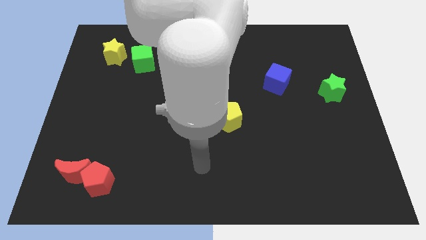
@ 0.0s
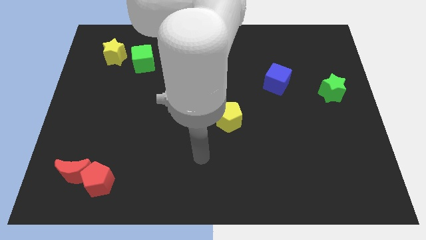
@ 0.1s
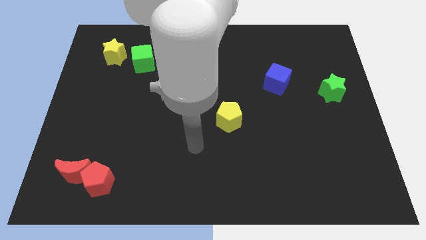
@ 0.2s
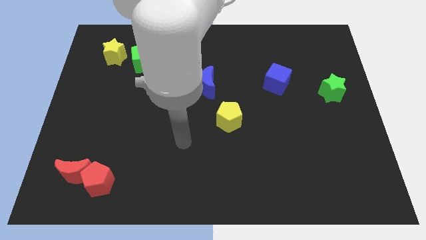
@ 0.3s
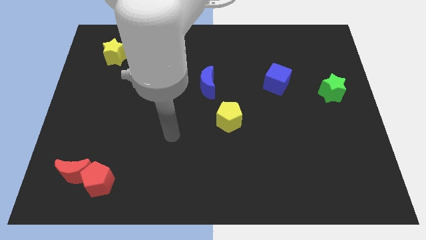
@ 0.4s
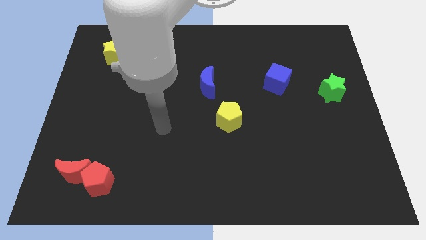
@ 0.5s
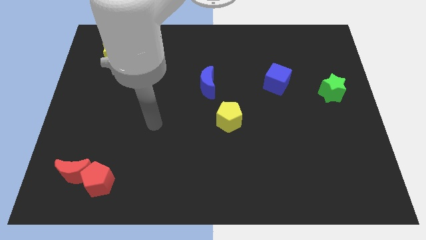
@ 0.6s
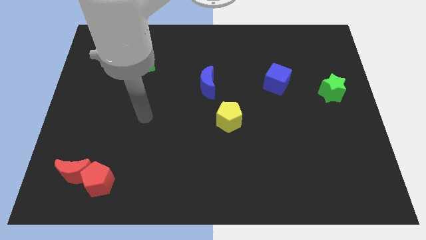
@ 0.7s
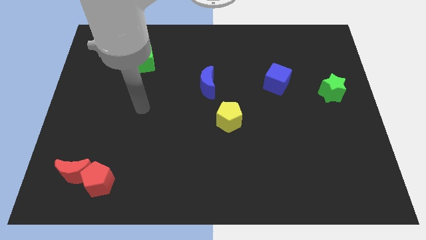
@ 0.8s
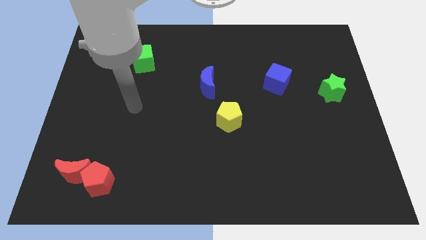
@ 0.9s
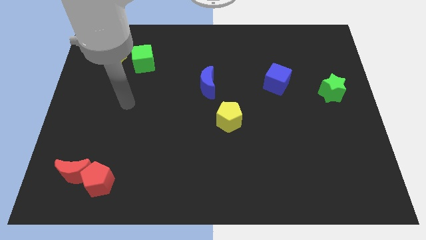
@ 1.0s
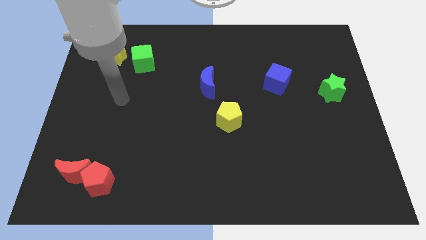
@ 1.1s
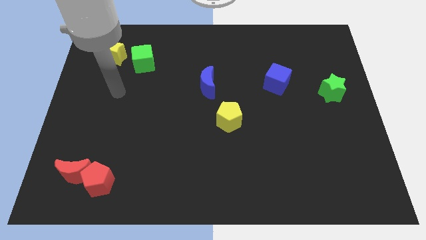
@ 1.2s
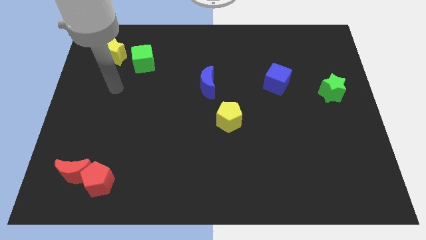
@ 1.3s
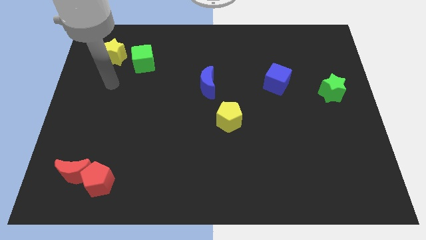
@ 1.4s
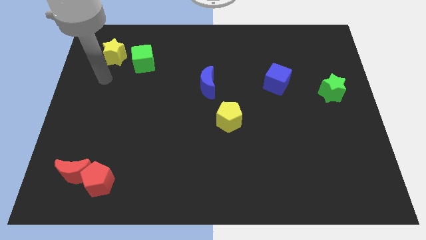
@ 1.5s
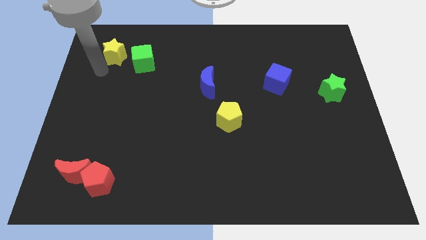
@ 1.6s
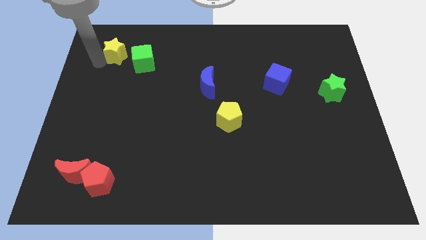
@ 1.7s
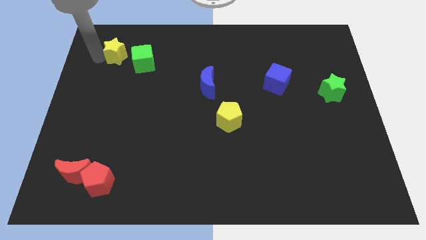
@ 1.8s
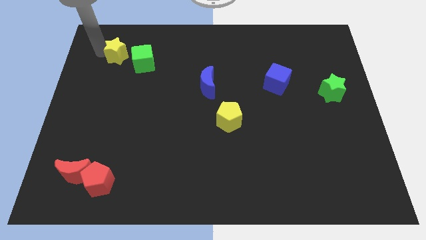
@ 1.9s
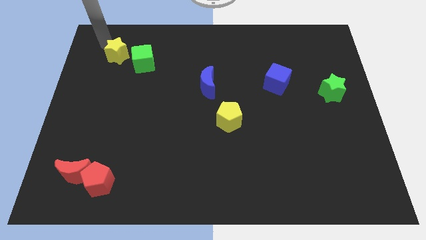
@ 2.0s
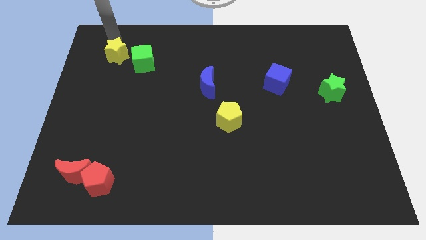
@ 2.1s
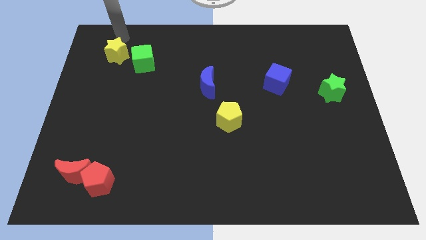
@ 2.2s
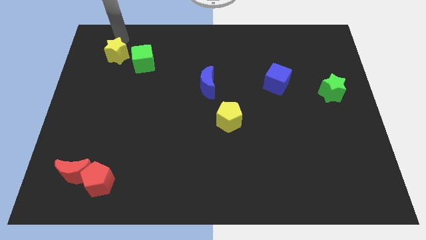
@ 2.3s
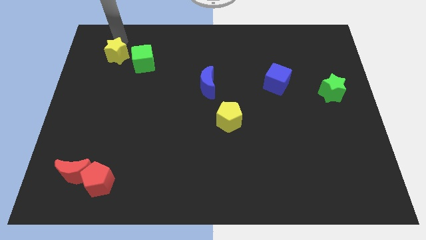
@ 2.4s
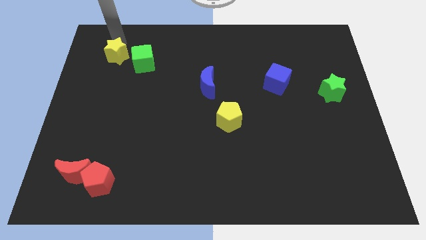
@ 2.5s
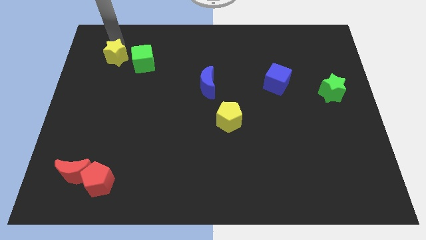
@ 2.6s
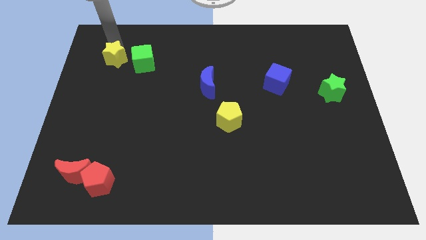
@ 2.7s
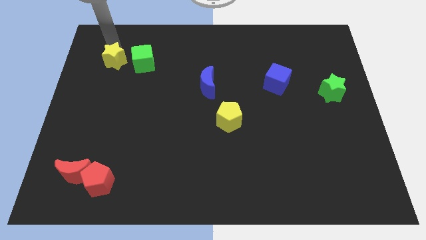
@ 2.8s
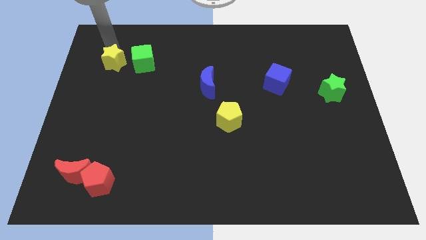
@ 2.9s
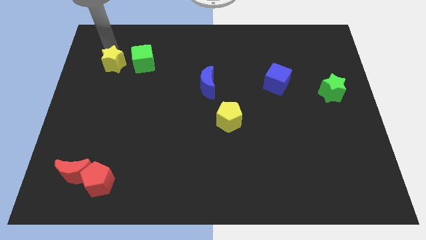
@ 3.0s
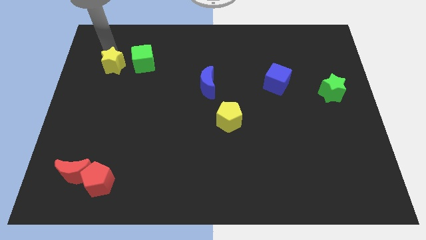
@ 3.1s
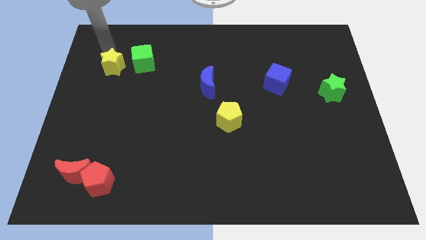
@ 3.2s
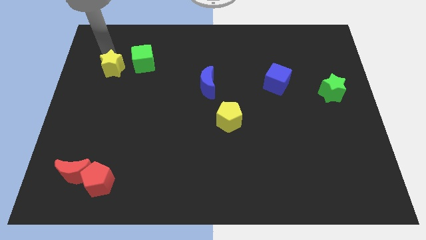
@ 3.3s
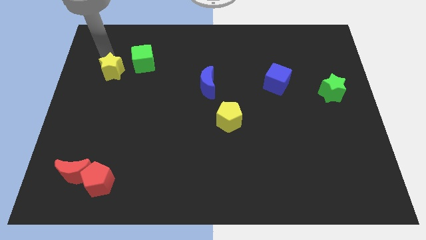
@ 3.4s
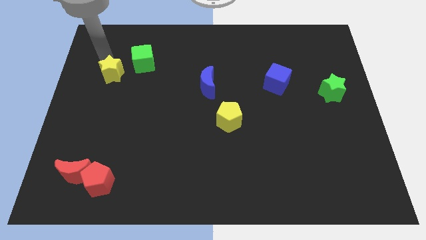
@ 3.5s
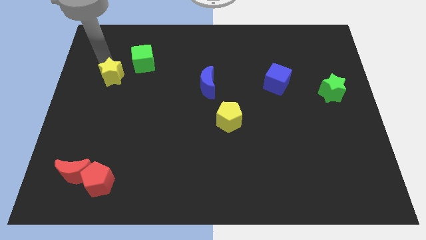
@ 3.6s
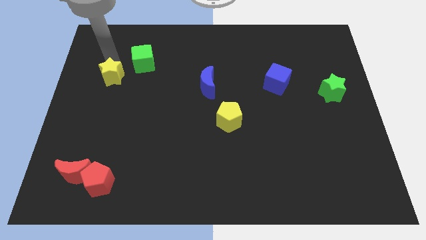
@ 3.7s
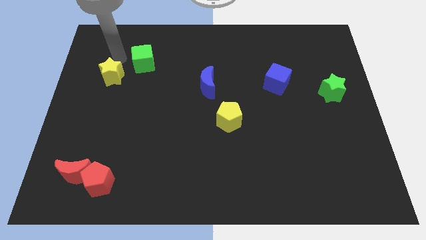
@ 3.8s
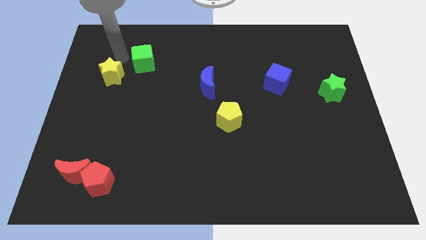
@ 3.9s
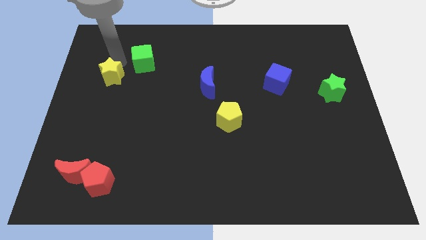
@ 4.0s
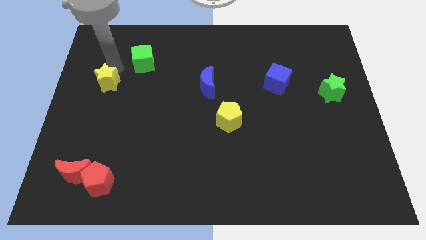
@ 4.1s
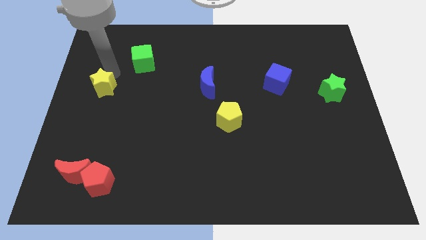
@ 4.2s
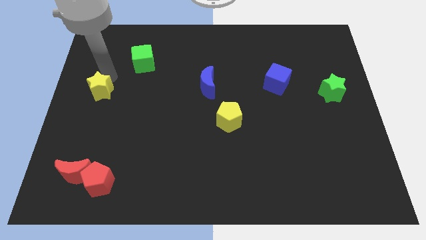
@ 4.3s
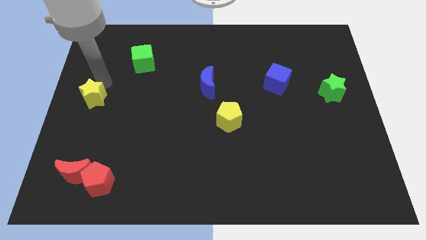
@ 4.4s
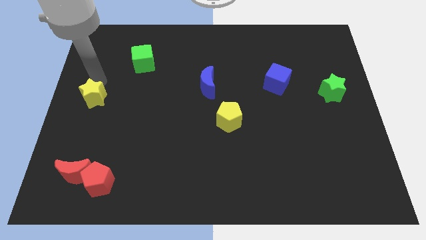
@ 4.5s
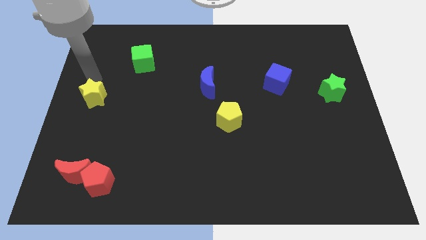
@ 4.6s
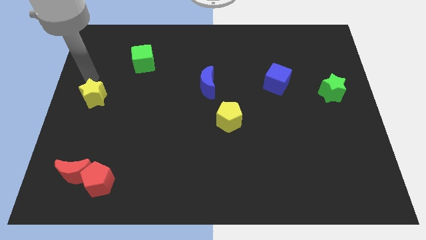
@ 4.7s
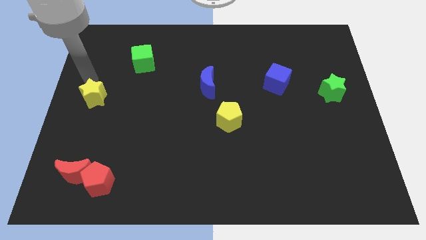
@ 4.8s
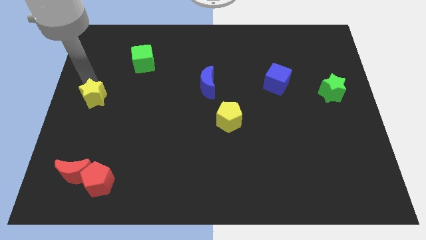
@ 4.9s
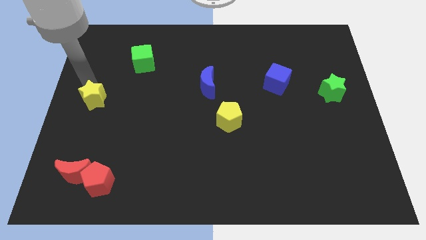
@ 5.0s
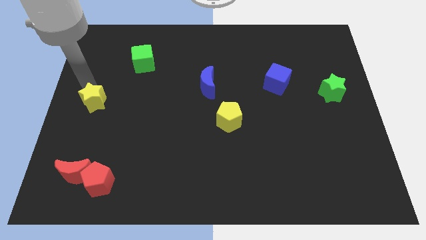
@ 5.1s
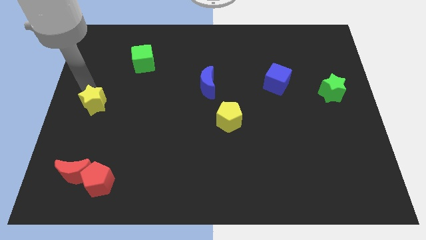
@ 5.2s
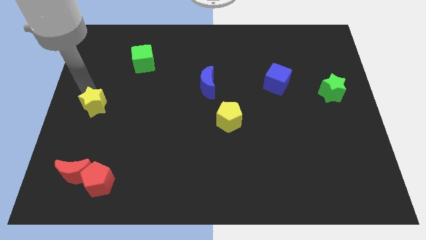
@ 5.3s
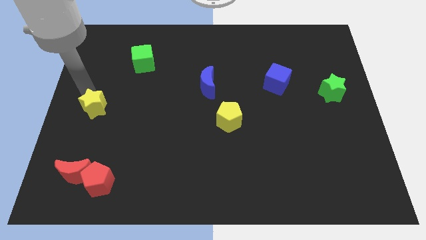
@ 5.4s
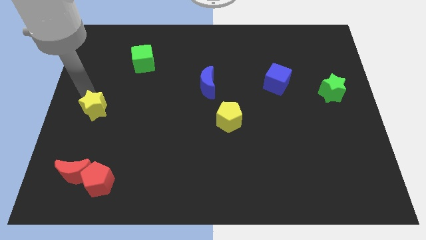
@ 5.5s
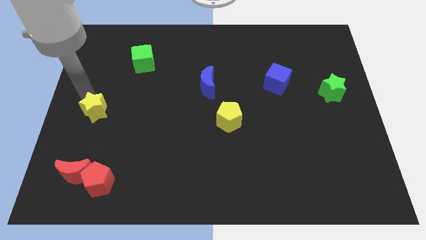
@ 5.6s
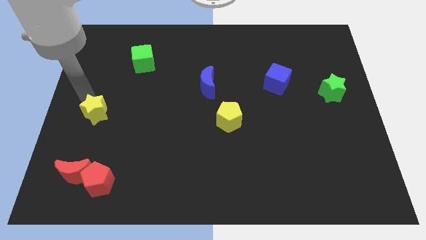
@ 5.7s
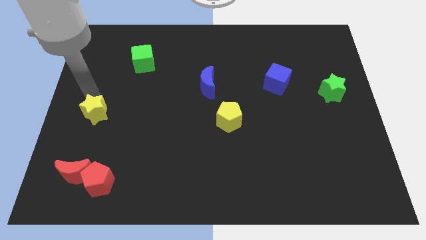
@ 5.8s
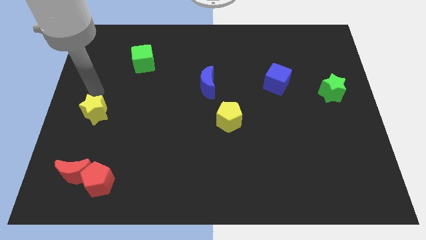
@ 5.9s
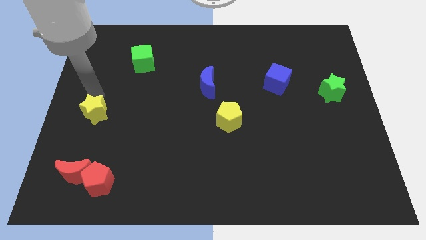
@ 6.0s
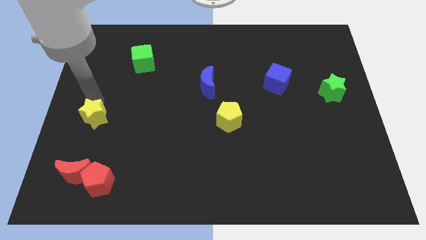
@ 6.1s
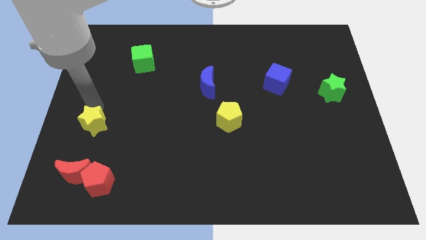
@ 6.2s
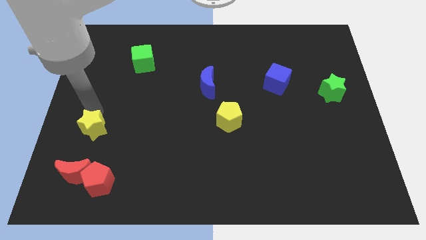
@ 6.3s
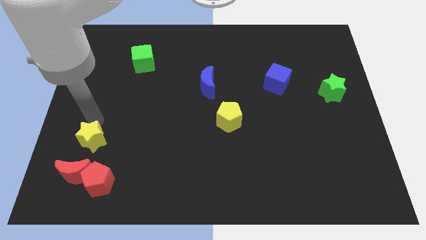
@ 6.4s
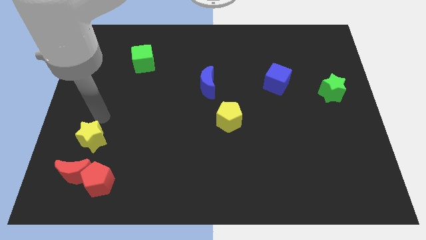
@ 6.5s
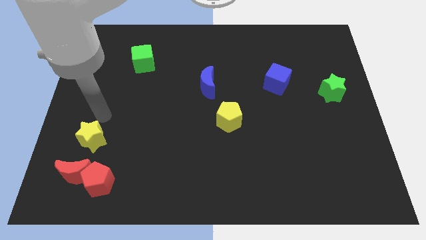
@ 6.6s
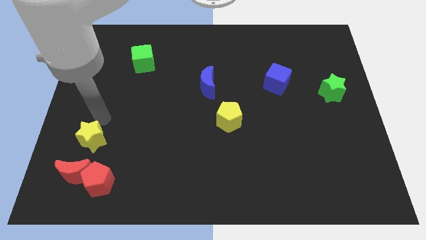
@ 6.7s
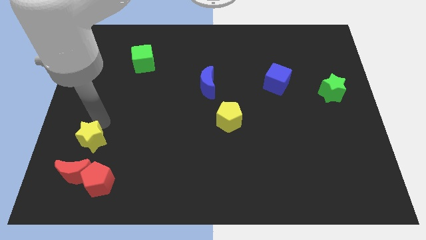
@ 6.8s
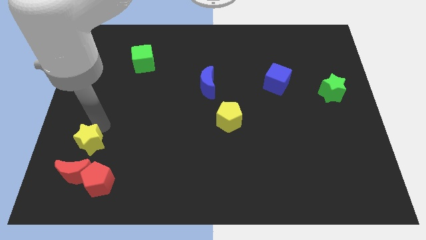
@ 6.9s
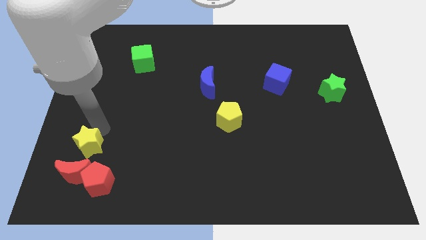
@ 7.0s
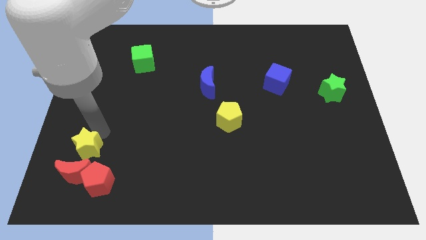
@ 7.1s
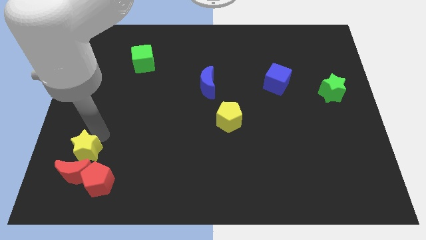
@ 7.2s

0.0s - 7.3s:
put the yellow star to the red moon
